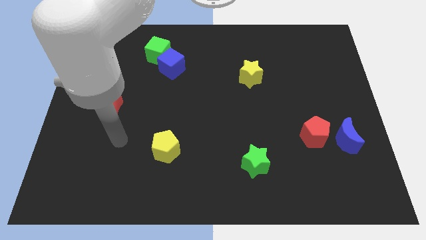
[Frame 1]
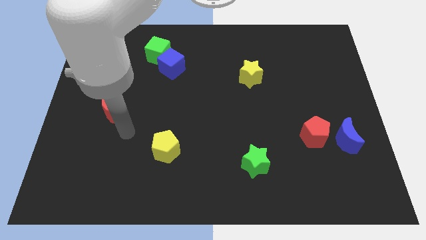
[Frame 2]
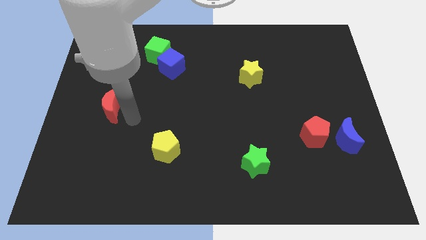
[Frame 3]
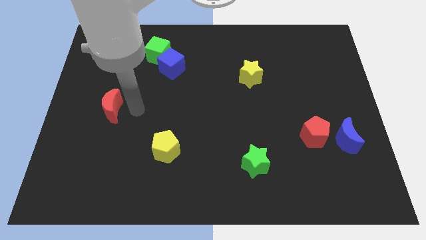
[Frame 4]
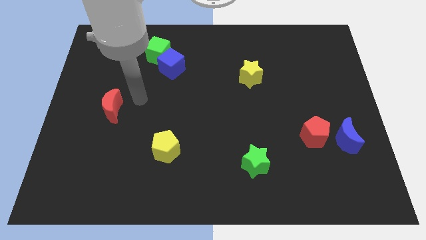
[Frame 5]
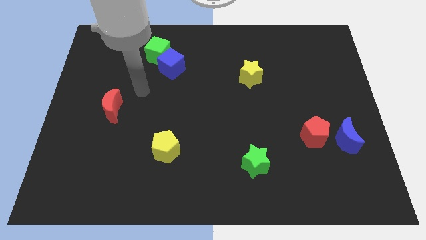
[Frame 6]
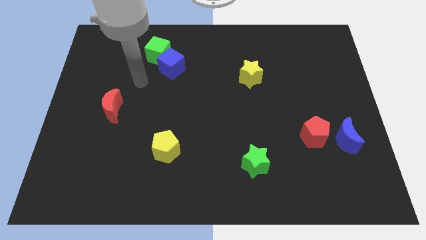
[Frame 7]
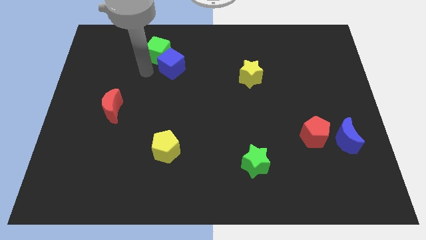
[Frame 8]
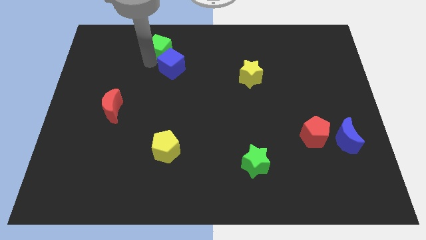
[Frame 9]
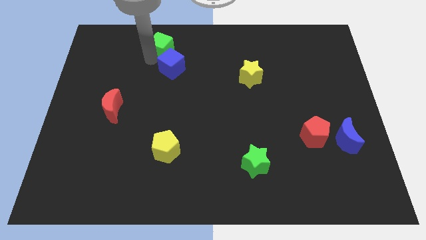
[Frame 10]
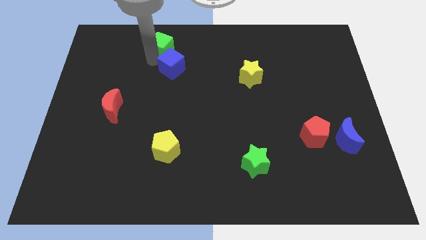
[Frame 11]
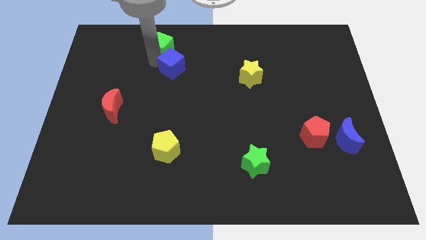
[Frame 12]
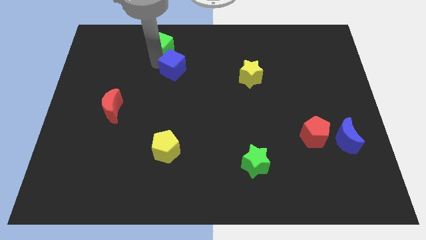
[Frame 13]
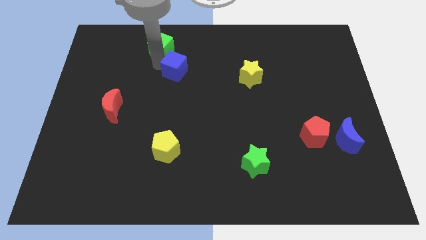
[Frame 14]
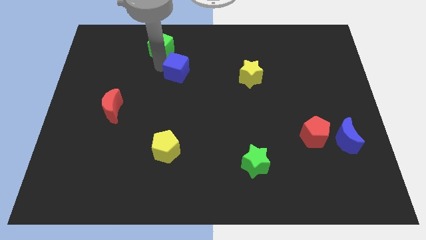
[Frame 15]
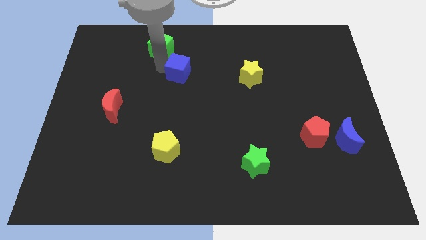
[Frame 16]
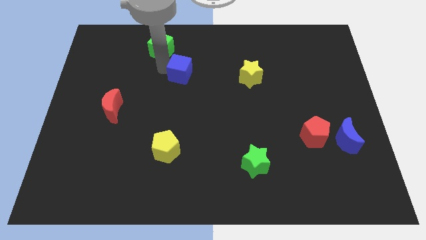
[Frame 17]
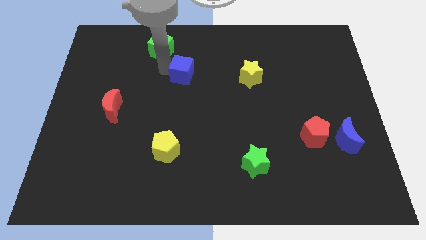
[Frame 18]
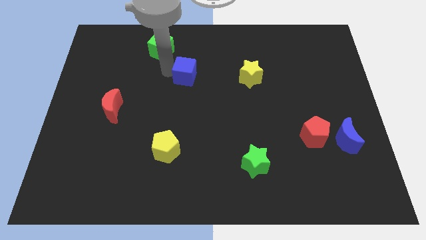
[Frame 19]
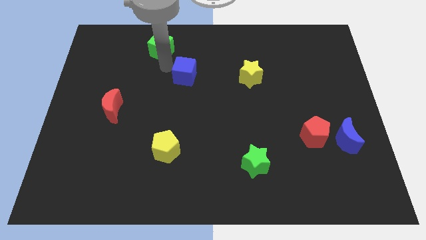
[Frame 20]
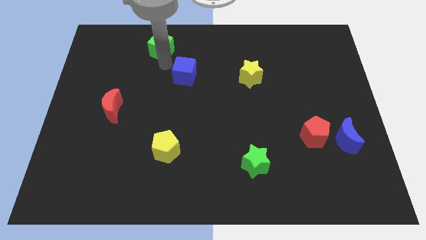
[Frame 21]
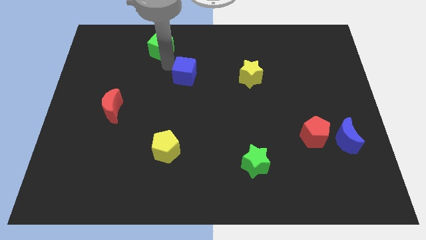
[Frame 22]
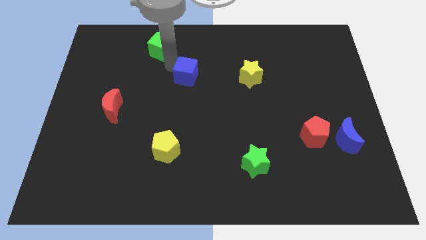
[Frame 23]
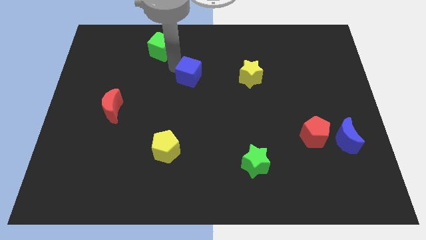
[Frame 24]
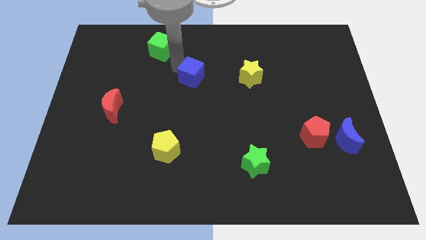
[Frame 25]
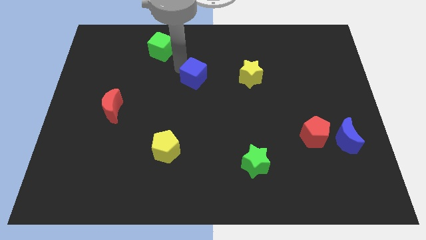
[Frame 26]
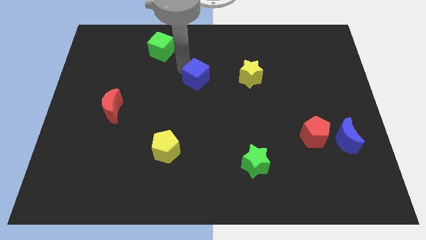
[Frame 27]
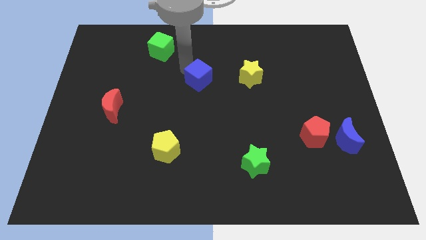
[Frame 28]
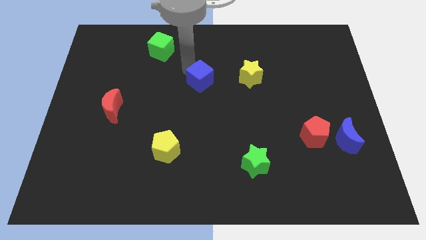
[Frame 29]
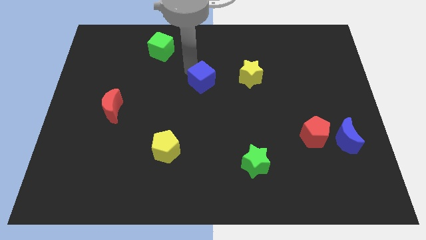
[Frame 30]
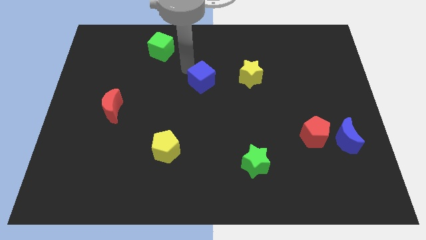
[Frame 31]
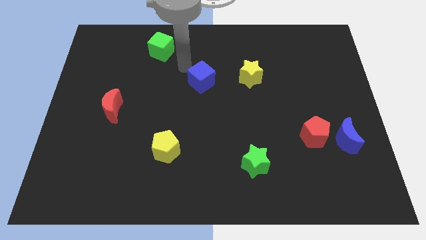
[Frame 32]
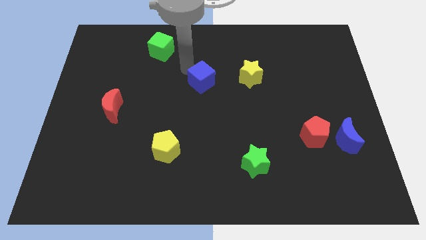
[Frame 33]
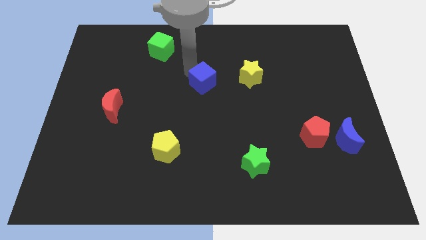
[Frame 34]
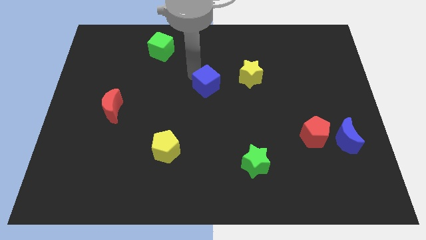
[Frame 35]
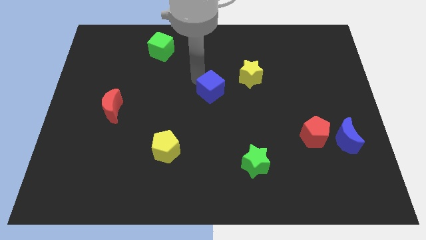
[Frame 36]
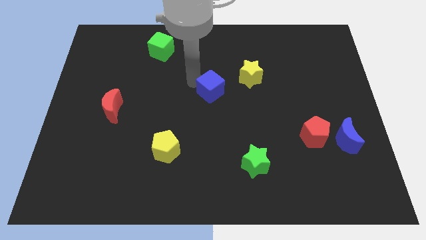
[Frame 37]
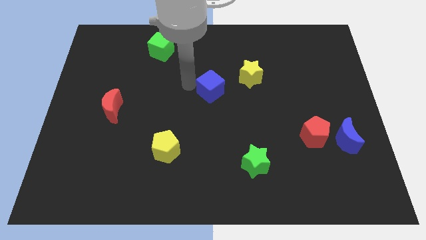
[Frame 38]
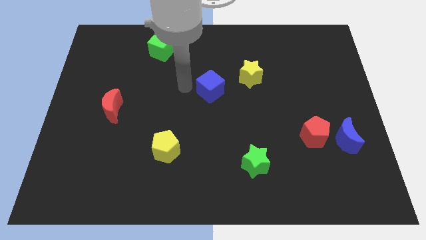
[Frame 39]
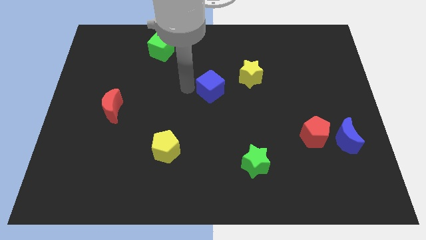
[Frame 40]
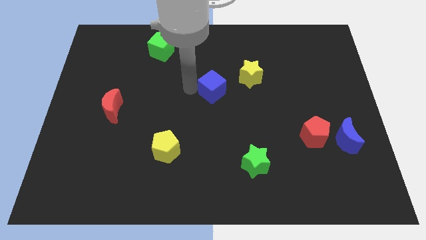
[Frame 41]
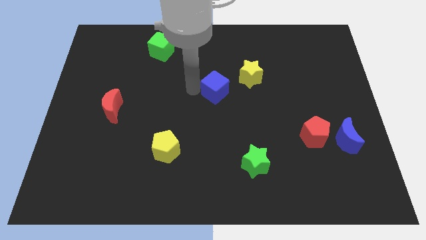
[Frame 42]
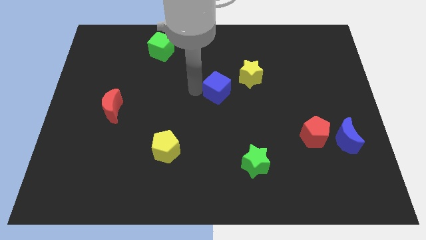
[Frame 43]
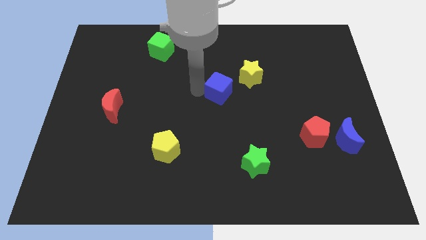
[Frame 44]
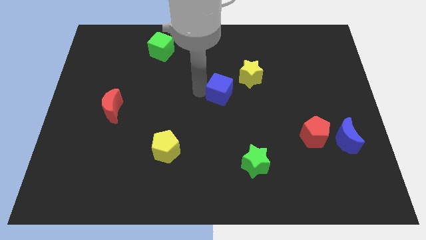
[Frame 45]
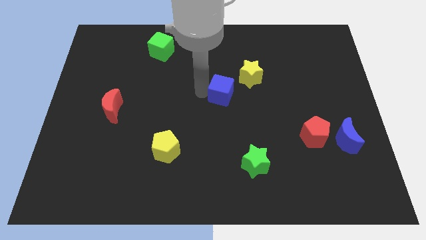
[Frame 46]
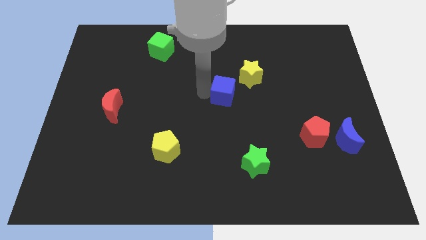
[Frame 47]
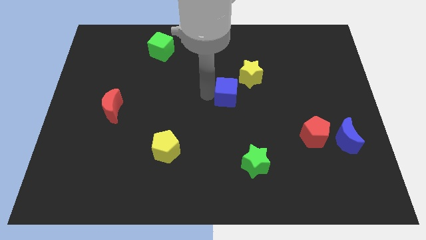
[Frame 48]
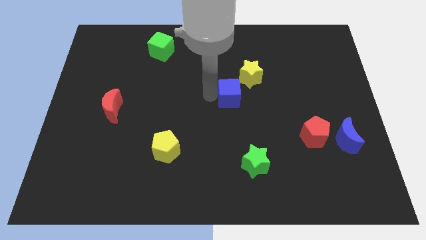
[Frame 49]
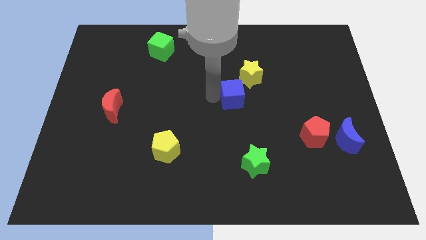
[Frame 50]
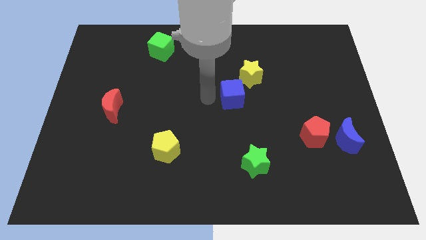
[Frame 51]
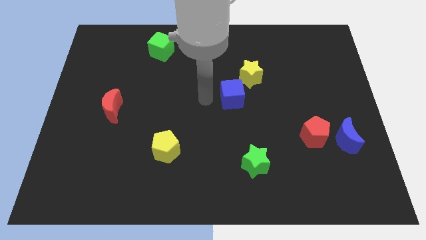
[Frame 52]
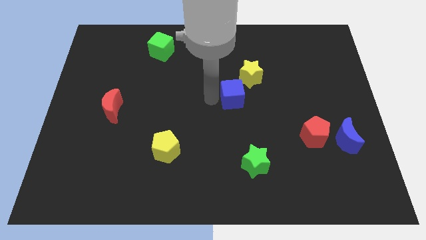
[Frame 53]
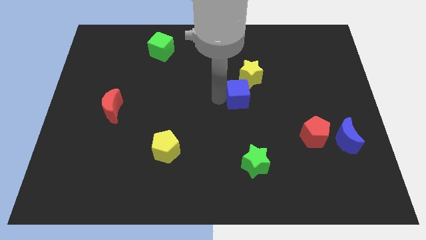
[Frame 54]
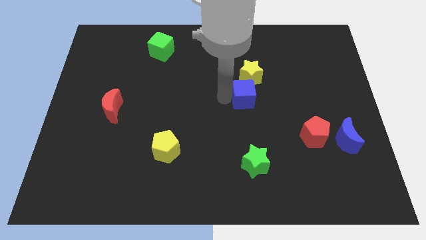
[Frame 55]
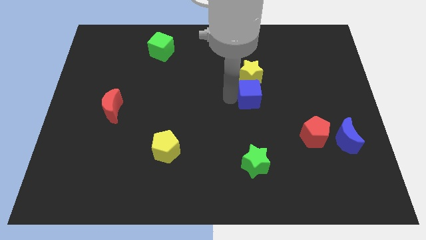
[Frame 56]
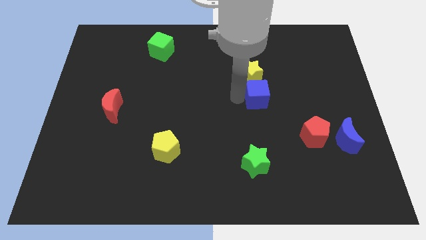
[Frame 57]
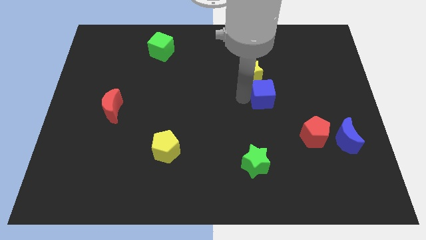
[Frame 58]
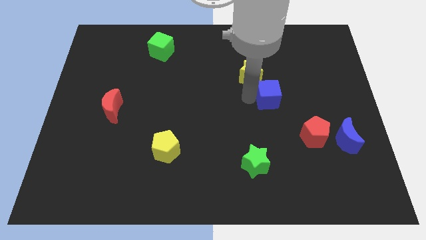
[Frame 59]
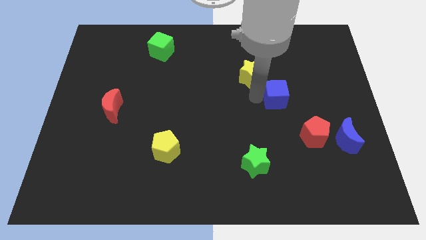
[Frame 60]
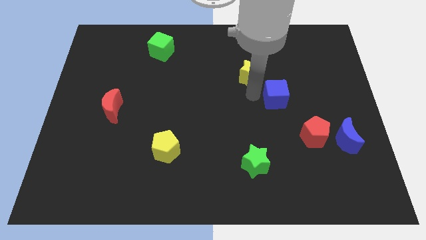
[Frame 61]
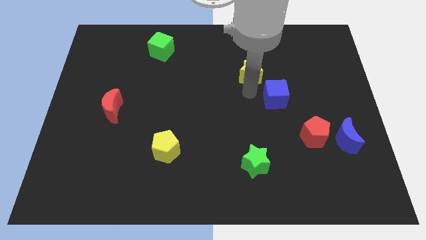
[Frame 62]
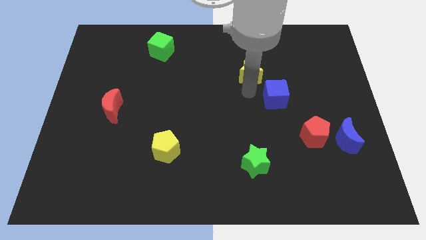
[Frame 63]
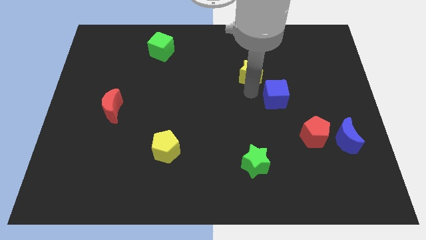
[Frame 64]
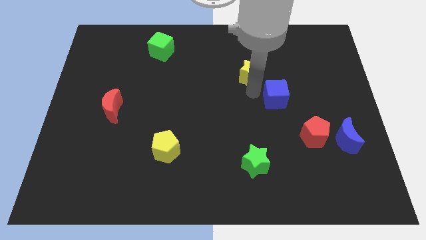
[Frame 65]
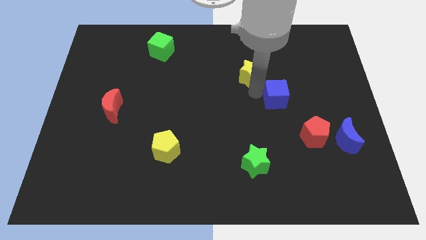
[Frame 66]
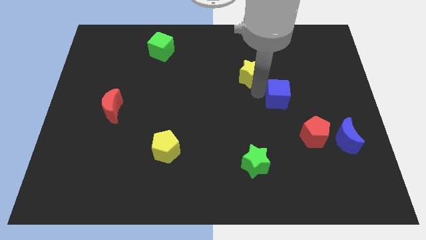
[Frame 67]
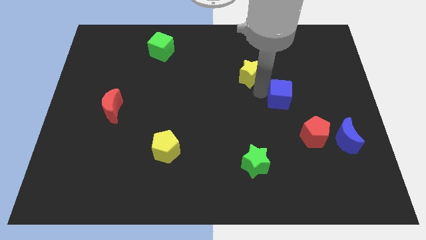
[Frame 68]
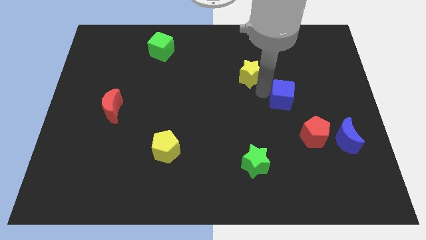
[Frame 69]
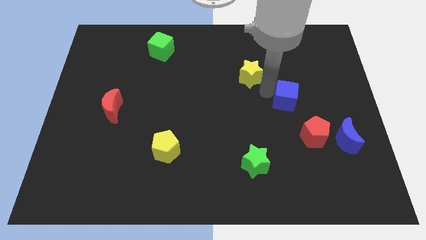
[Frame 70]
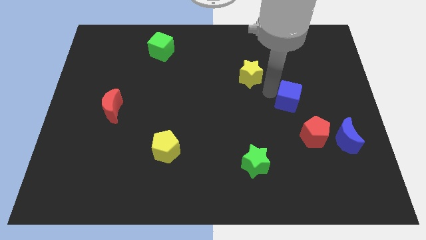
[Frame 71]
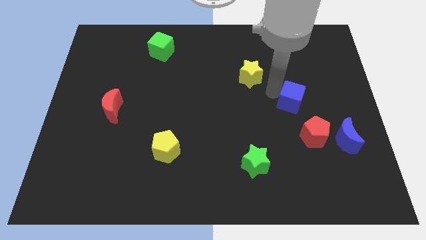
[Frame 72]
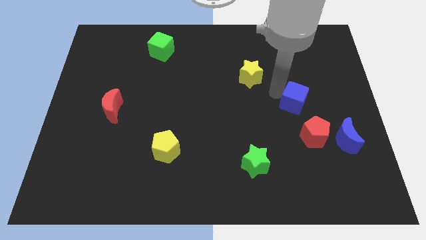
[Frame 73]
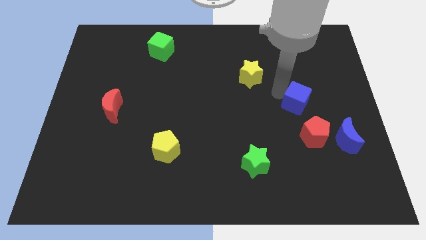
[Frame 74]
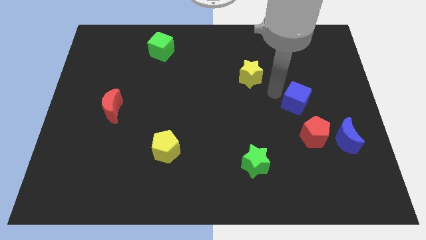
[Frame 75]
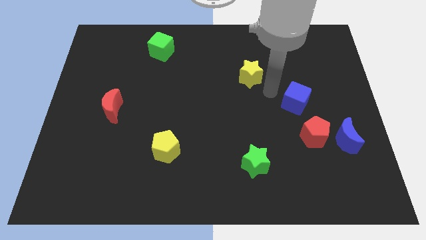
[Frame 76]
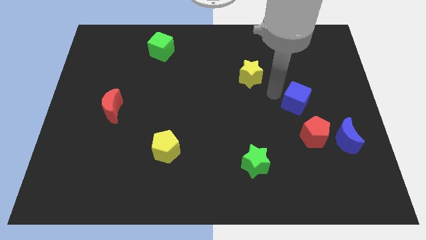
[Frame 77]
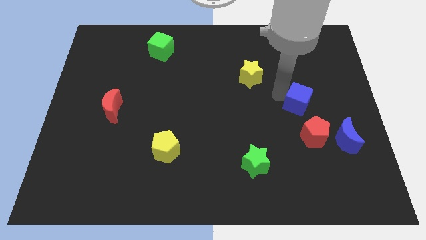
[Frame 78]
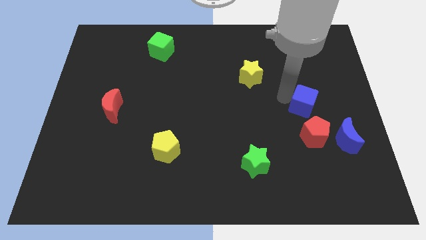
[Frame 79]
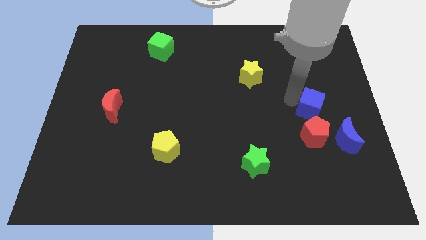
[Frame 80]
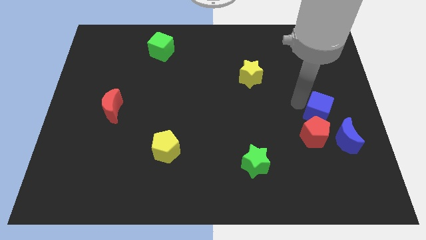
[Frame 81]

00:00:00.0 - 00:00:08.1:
move the blue cube diagonally up and to the right of the red pentagon
